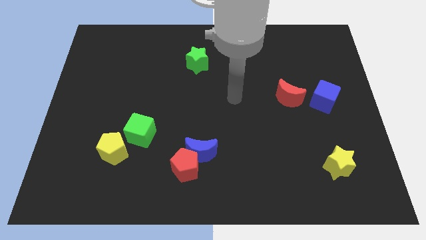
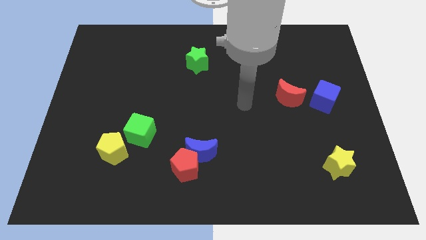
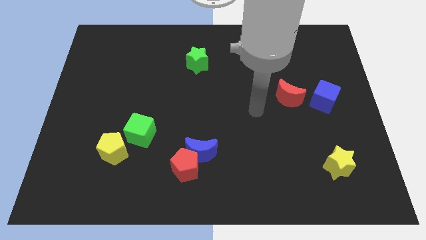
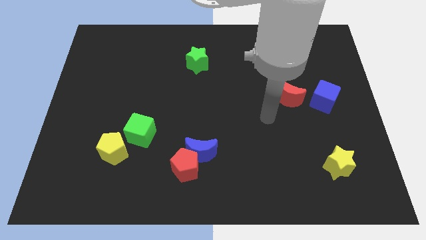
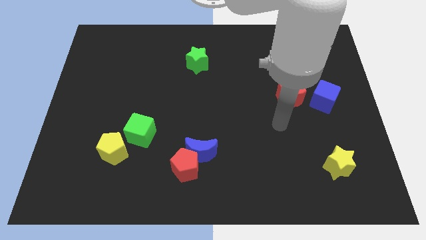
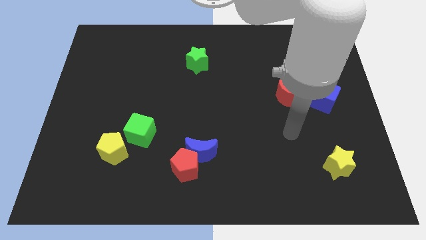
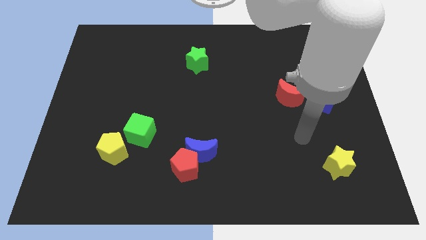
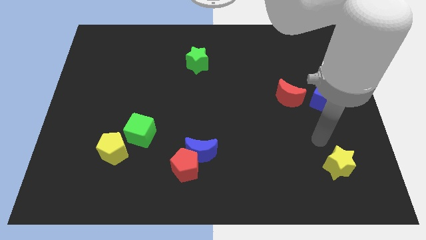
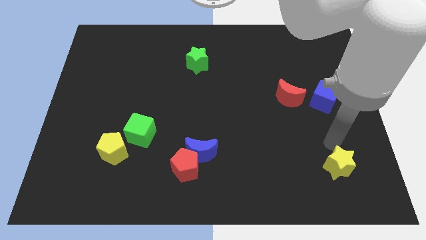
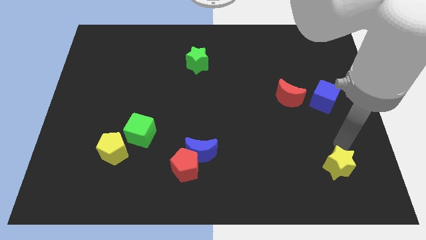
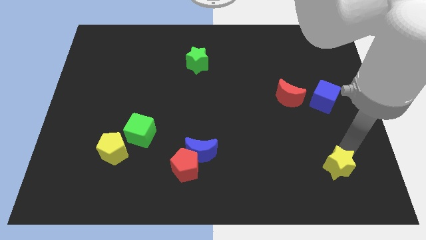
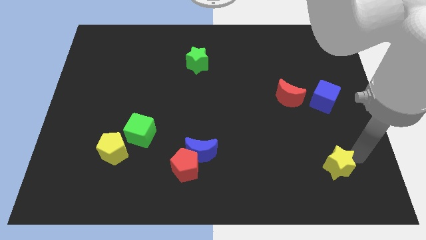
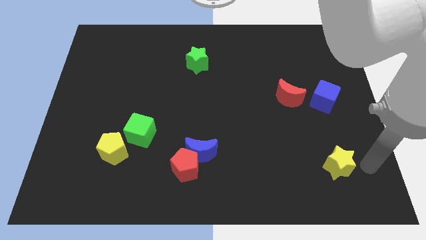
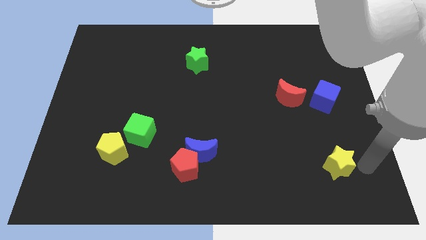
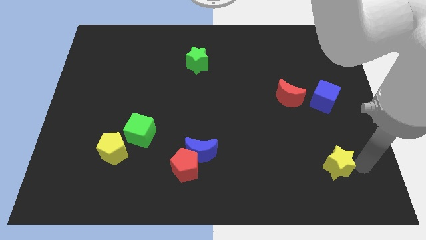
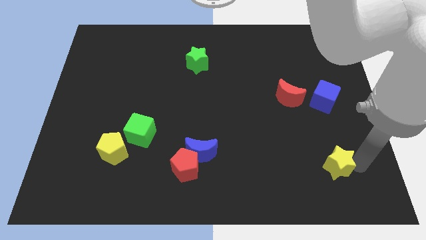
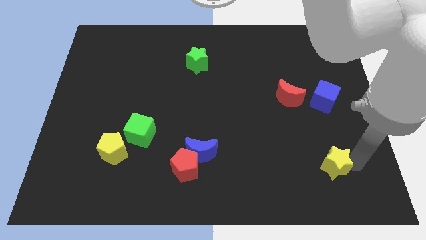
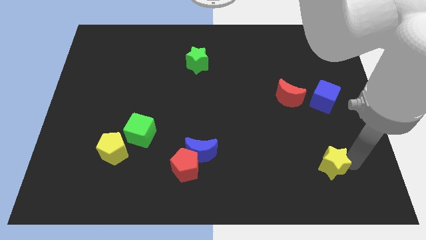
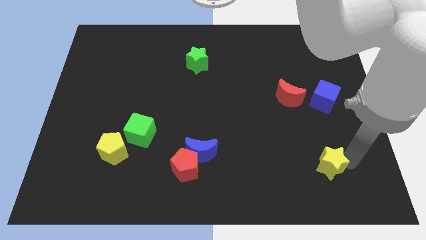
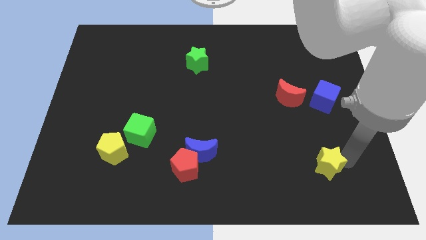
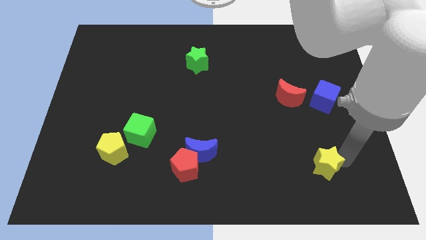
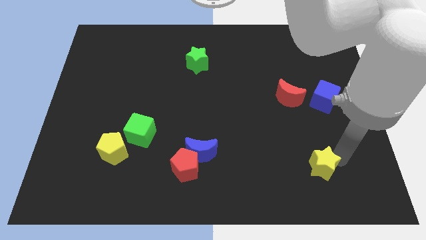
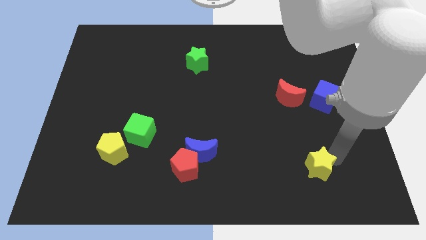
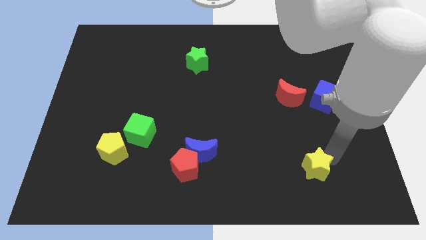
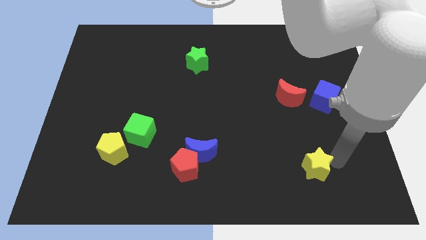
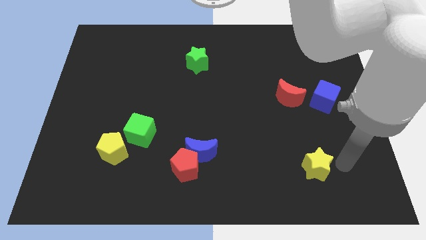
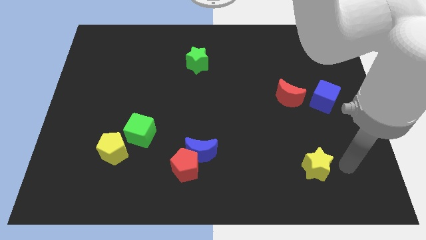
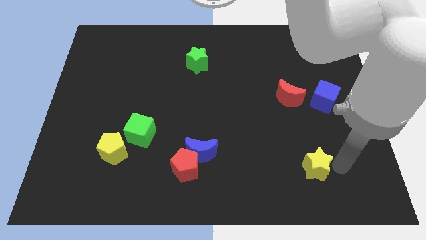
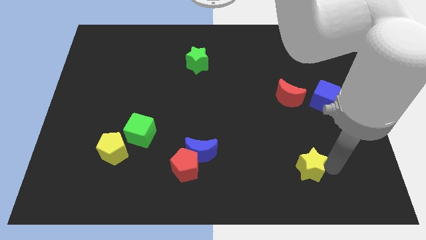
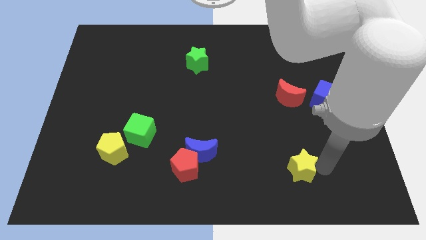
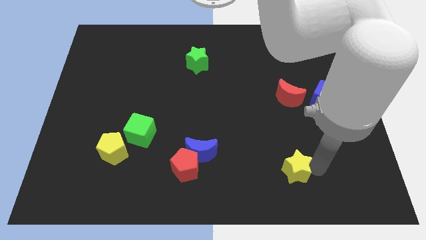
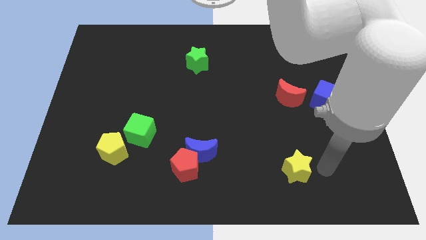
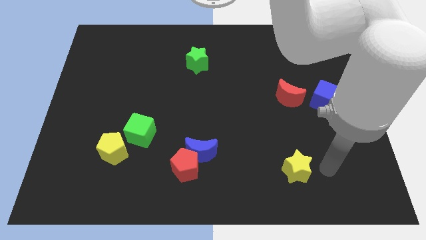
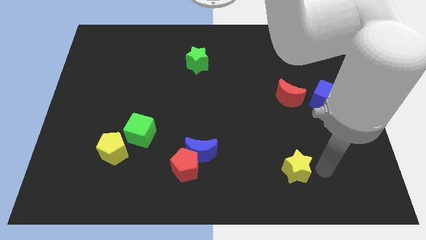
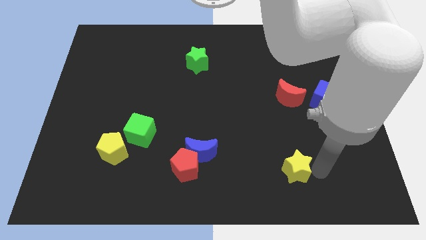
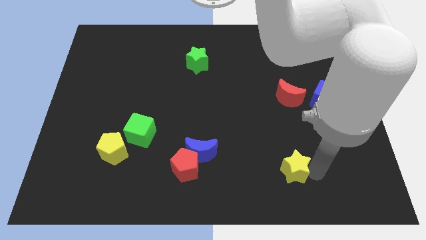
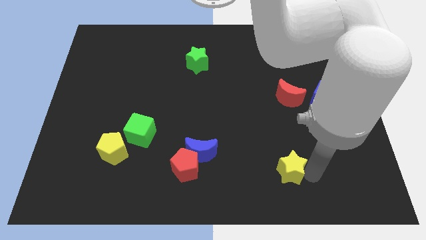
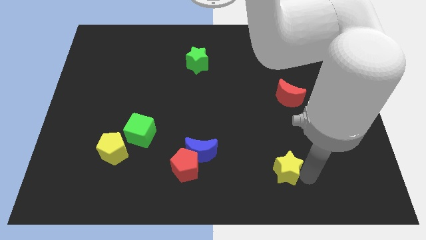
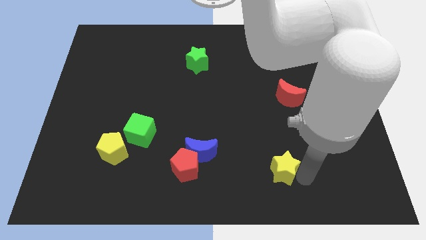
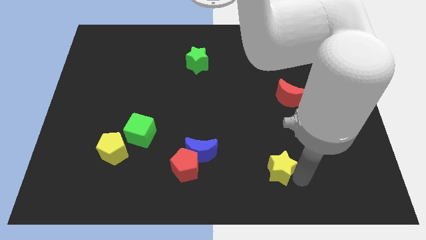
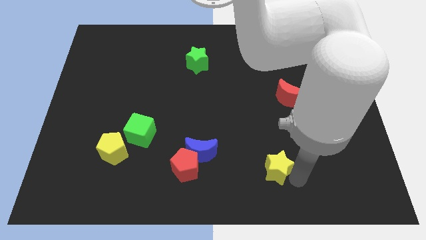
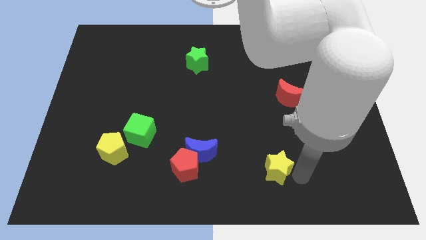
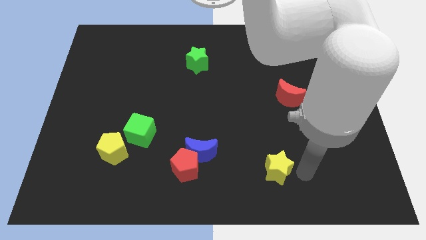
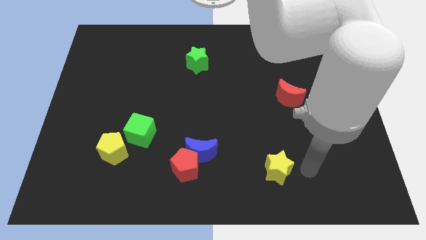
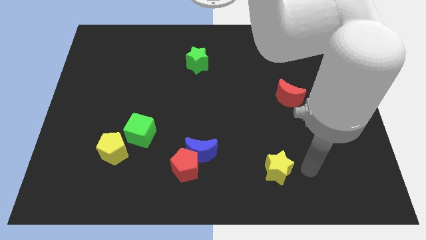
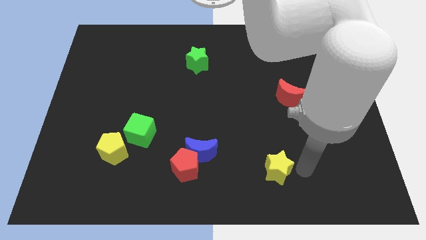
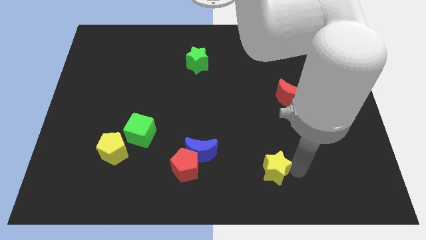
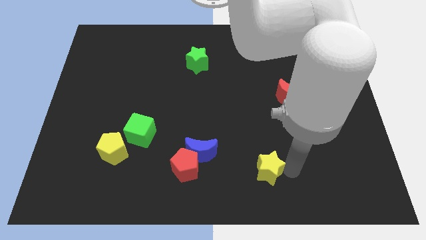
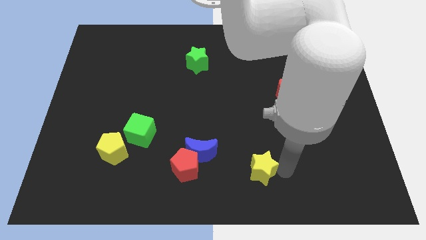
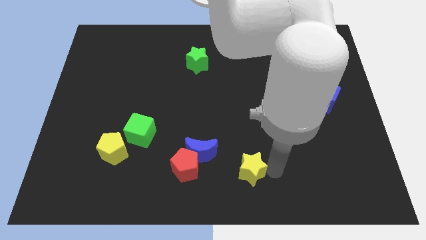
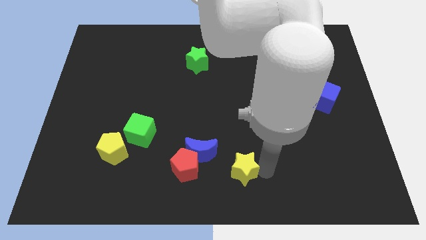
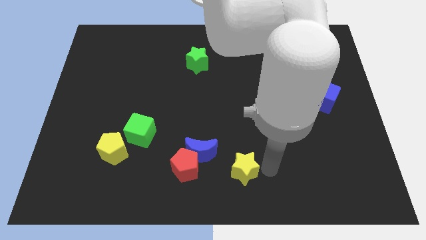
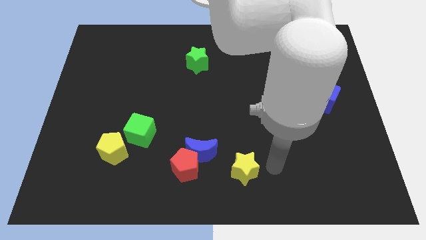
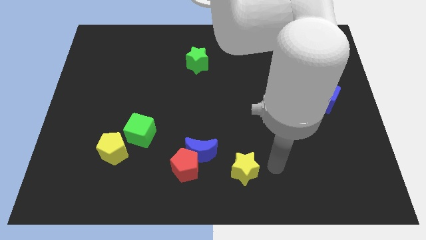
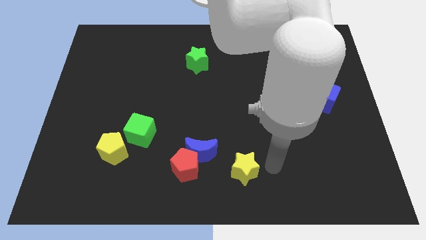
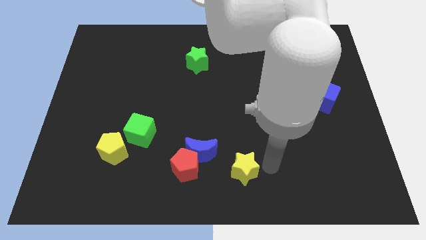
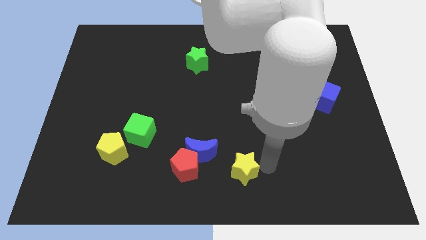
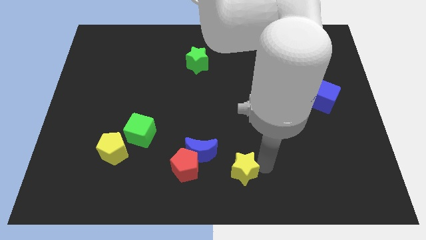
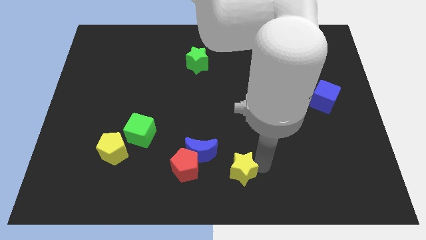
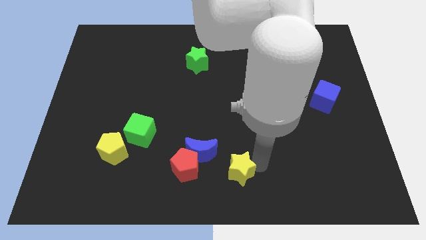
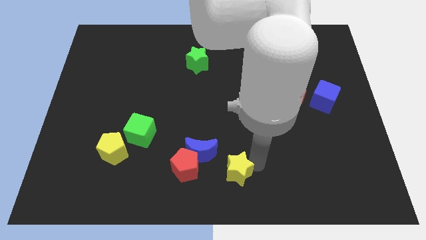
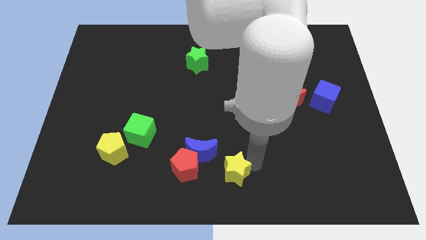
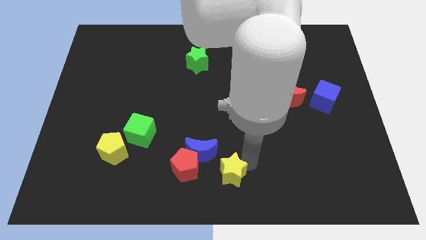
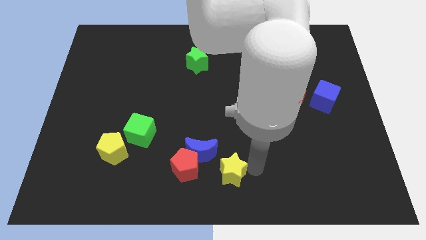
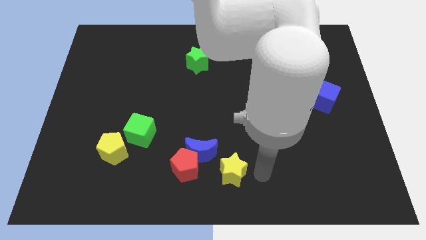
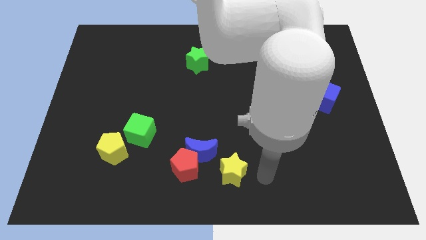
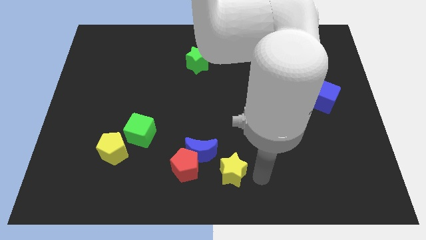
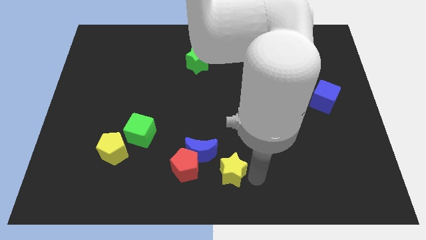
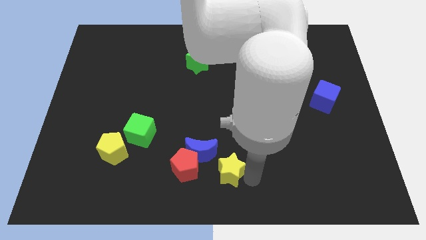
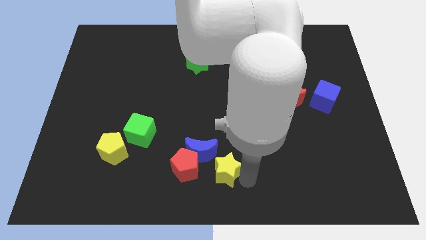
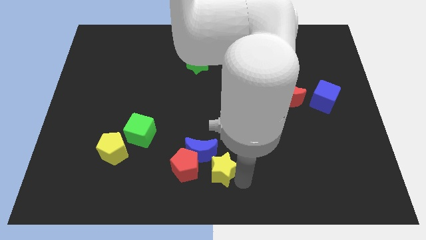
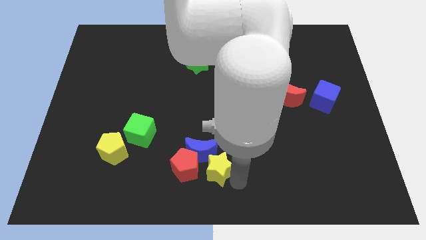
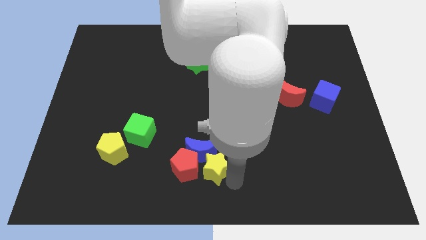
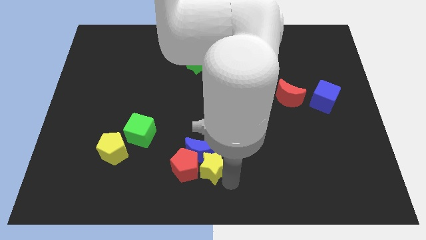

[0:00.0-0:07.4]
slide the yellow star close to the red pentagon

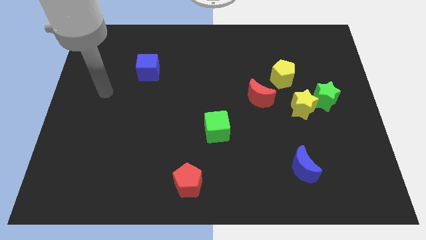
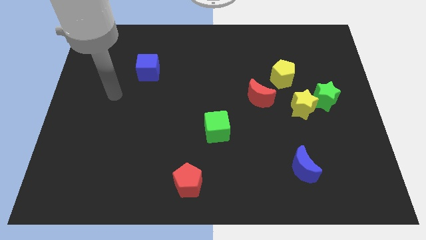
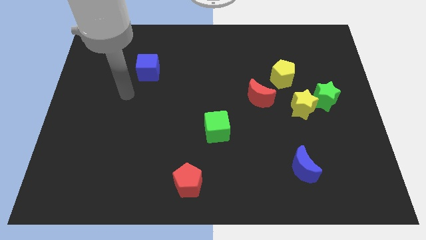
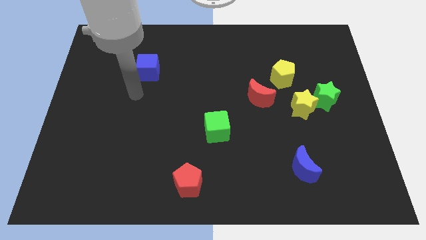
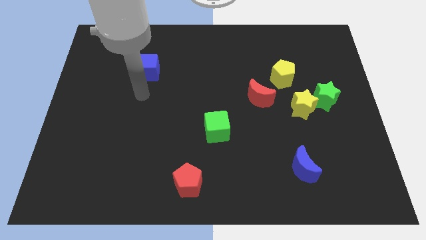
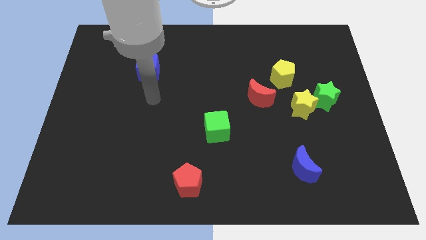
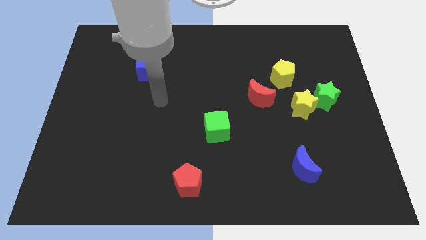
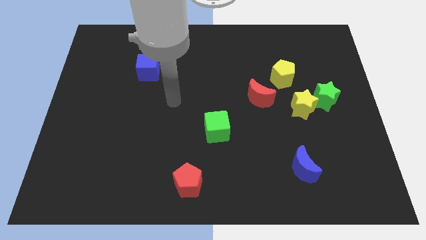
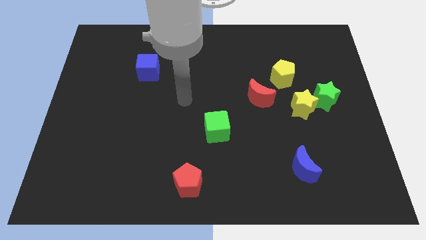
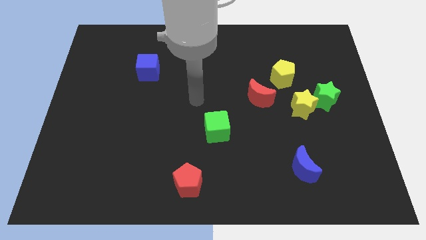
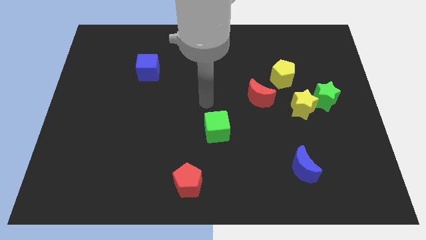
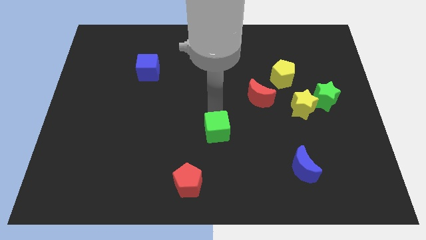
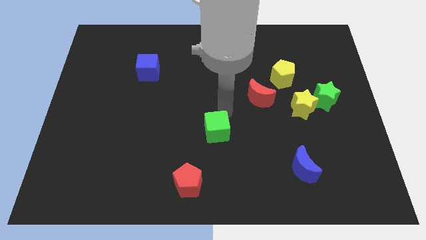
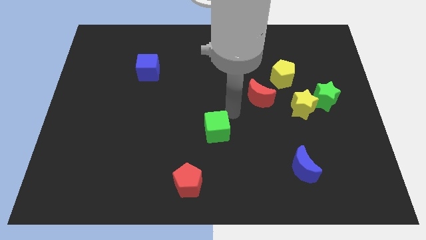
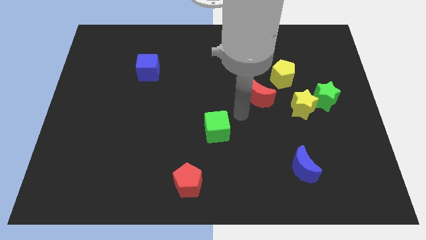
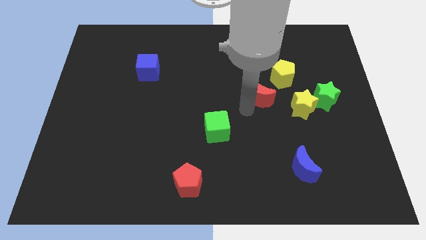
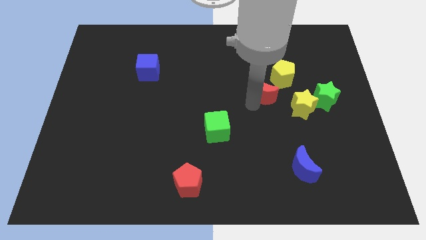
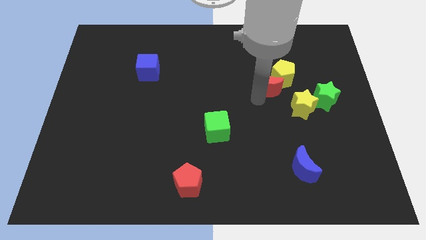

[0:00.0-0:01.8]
push the red moon towards the yellow pentagon
